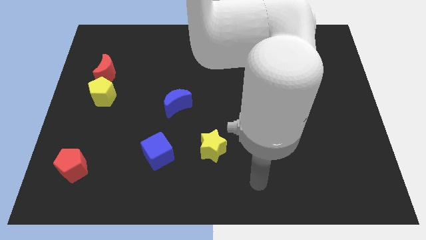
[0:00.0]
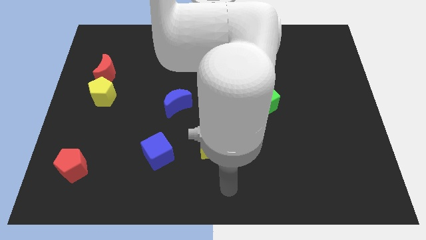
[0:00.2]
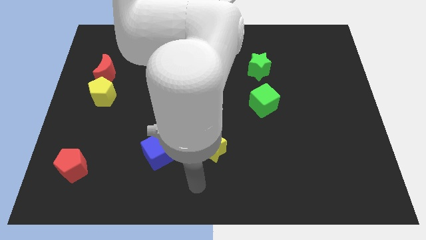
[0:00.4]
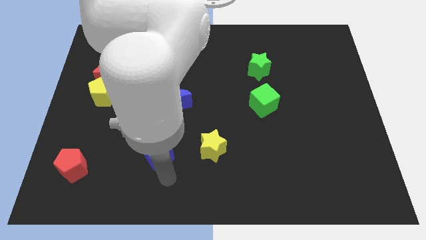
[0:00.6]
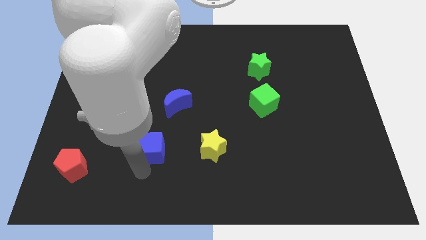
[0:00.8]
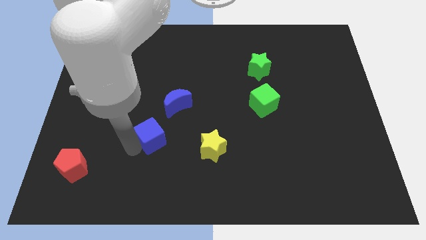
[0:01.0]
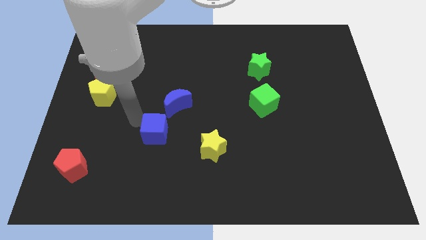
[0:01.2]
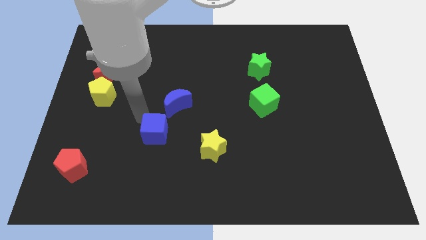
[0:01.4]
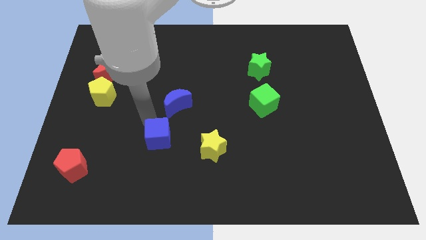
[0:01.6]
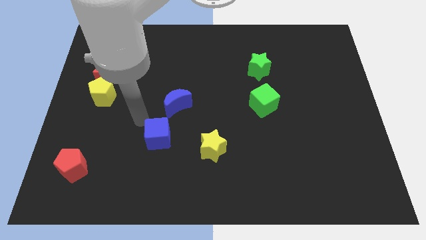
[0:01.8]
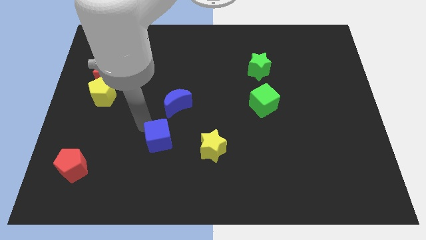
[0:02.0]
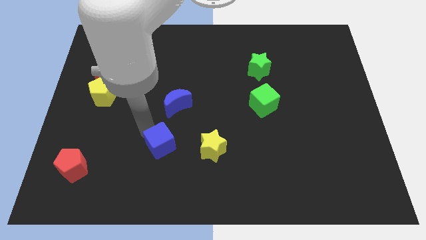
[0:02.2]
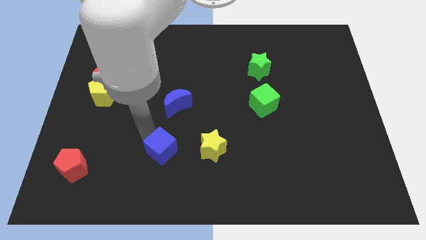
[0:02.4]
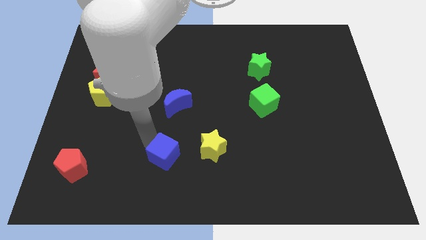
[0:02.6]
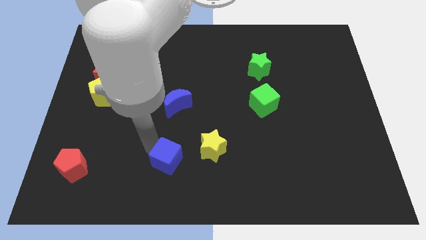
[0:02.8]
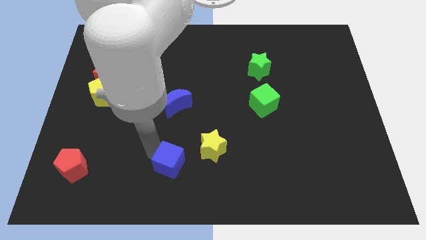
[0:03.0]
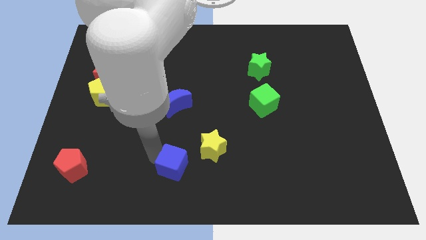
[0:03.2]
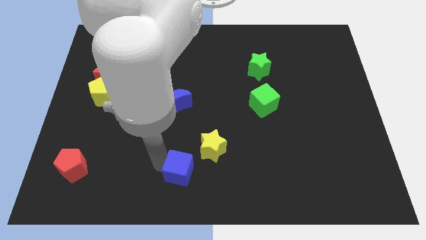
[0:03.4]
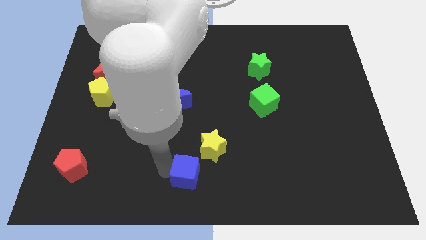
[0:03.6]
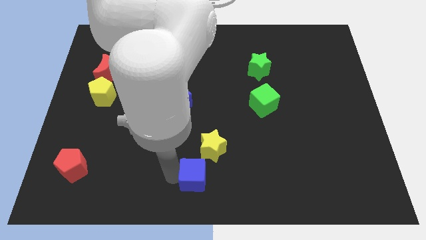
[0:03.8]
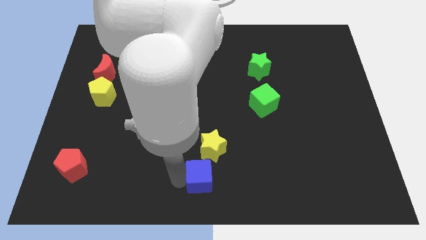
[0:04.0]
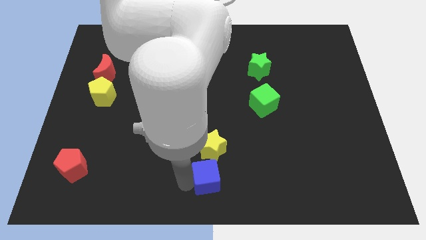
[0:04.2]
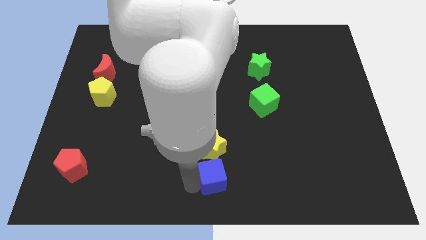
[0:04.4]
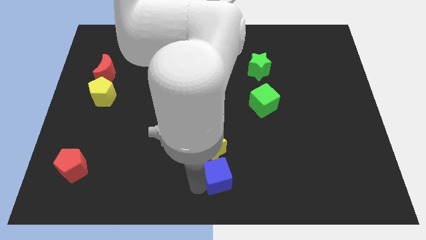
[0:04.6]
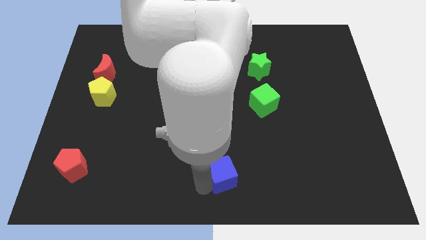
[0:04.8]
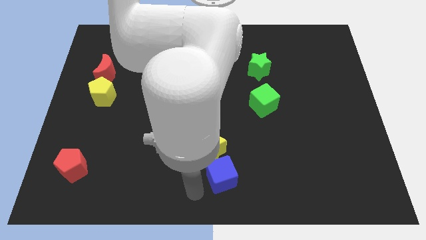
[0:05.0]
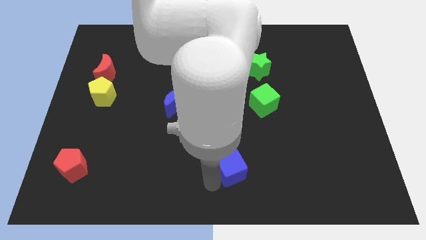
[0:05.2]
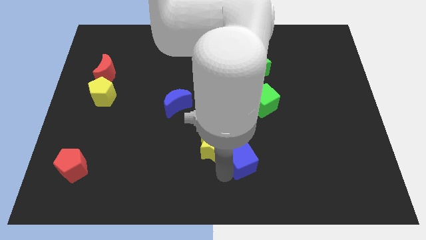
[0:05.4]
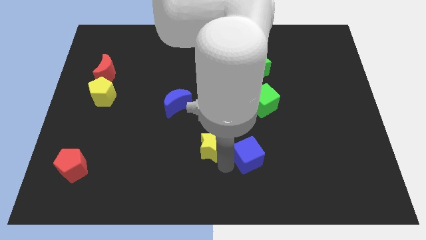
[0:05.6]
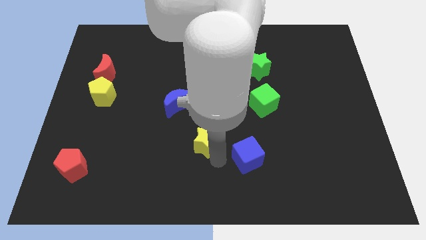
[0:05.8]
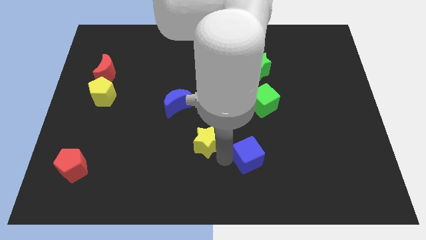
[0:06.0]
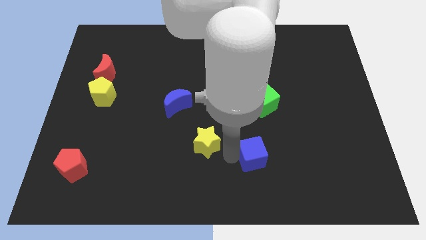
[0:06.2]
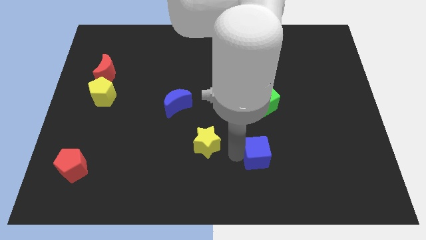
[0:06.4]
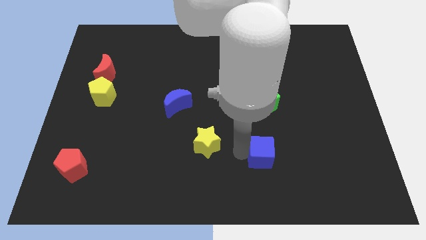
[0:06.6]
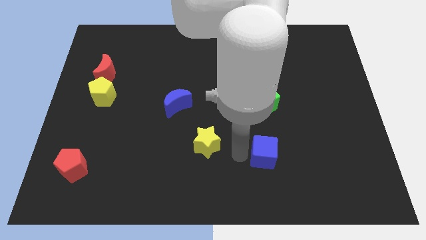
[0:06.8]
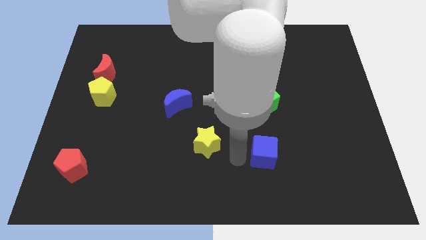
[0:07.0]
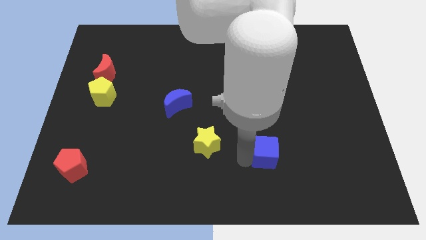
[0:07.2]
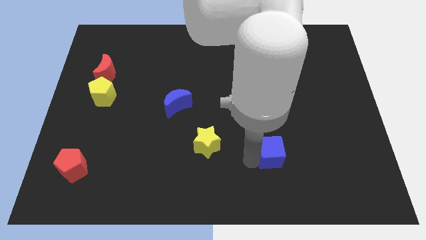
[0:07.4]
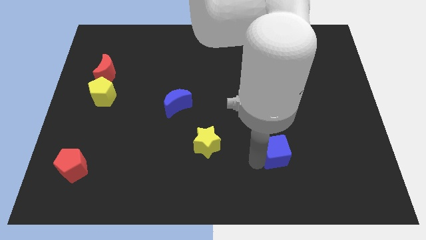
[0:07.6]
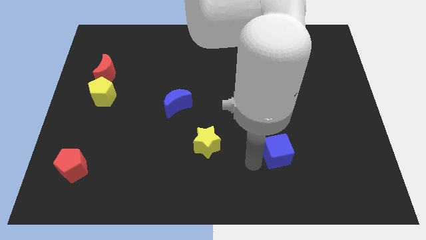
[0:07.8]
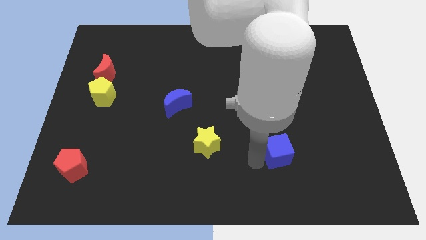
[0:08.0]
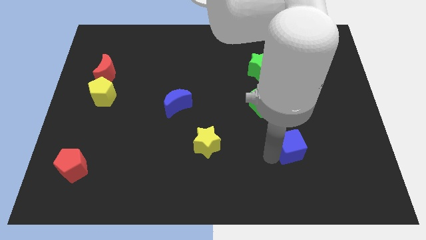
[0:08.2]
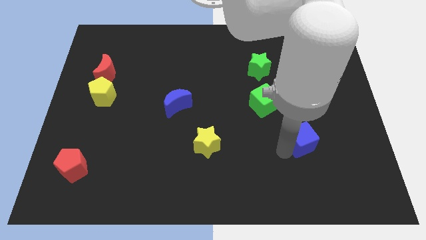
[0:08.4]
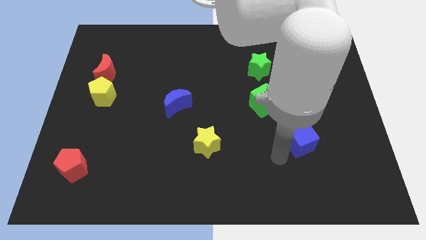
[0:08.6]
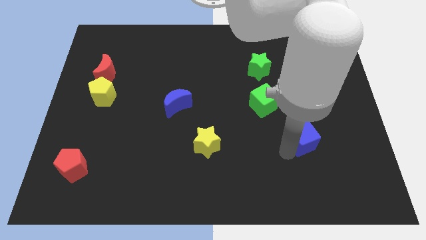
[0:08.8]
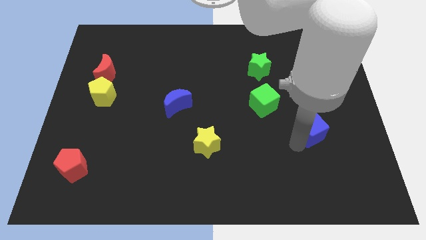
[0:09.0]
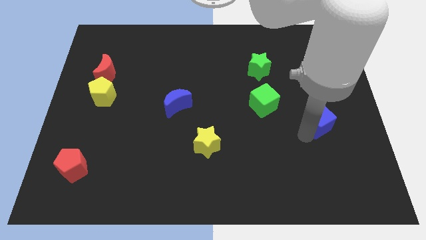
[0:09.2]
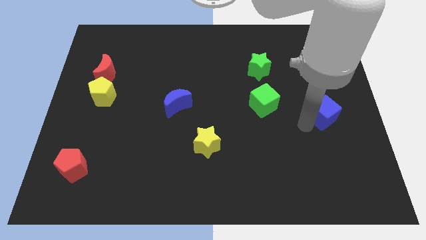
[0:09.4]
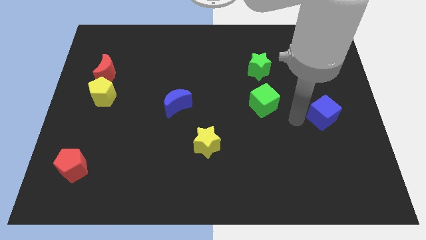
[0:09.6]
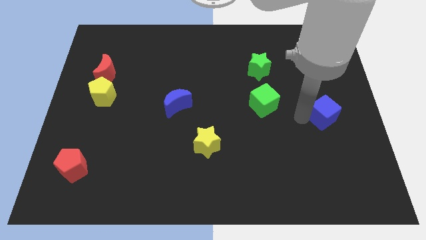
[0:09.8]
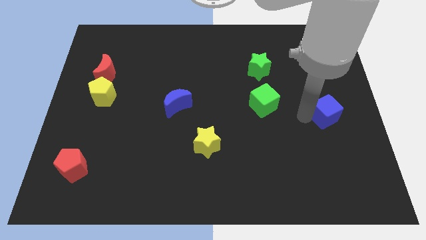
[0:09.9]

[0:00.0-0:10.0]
put the blue cube to the right side of the board
